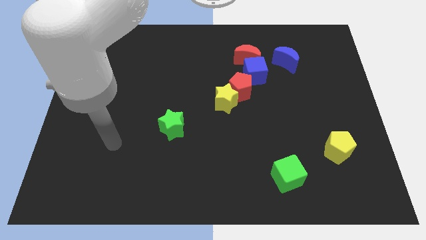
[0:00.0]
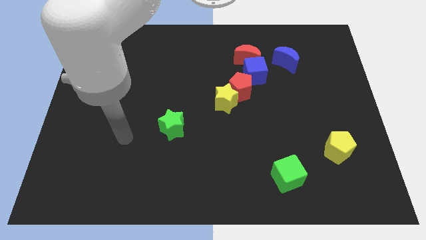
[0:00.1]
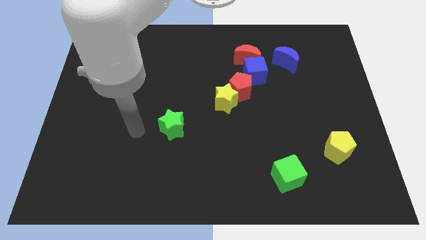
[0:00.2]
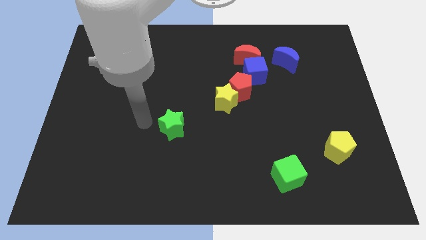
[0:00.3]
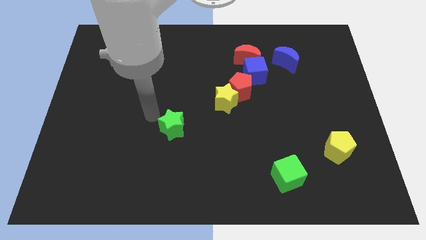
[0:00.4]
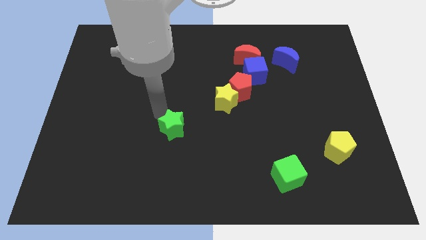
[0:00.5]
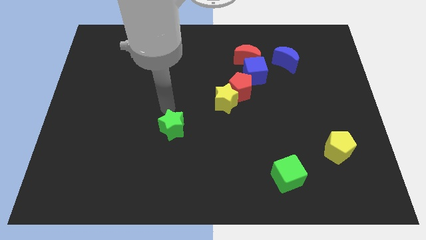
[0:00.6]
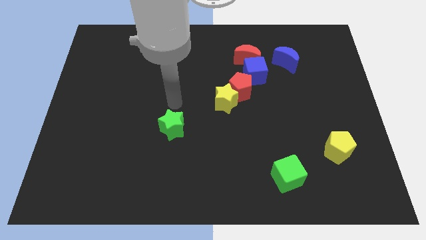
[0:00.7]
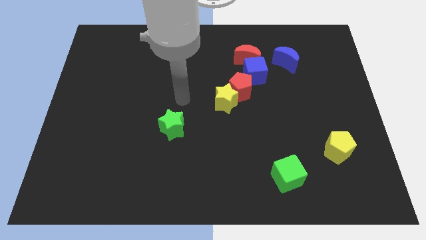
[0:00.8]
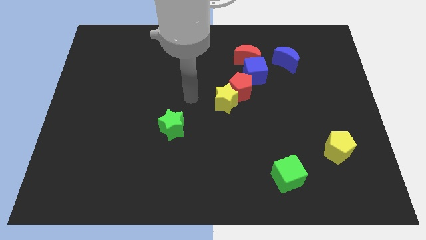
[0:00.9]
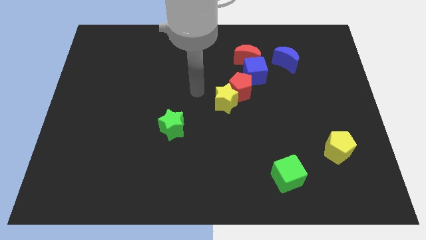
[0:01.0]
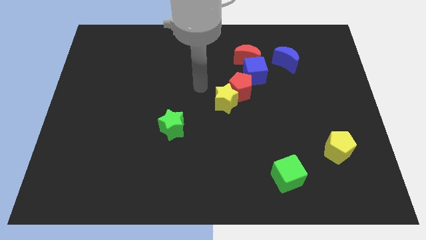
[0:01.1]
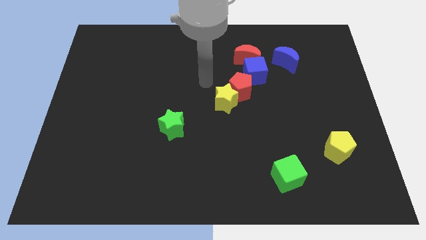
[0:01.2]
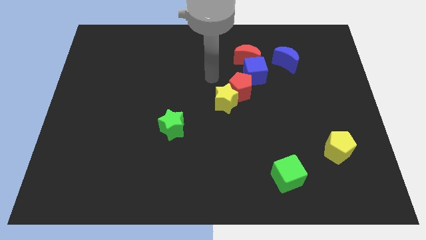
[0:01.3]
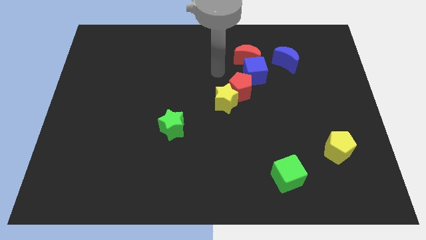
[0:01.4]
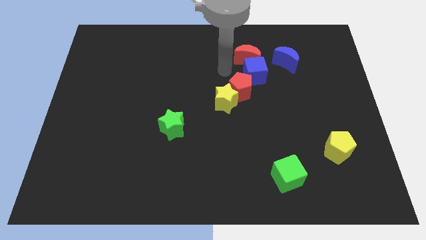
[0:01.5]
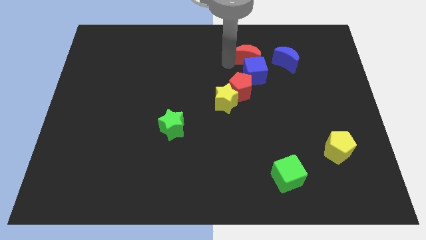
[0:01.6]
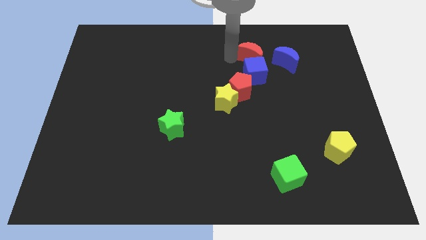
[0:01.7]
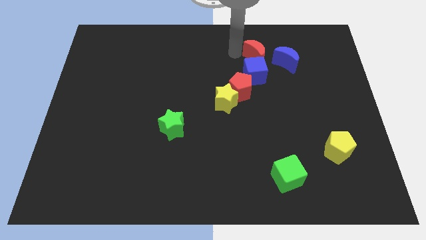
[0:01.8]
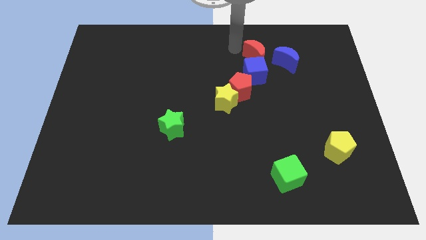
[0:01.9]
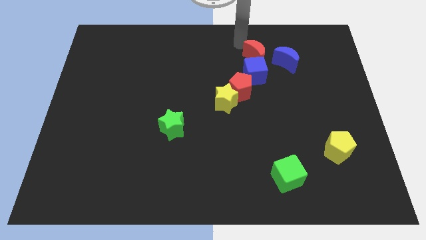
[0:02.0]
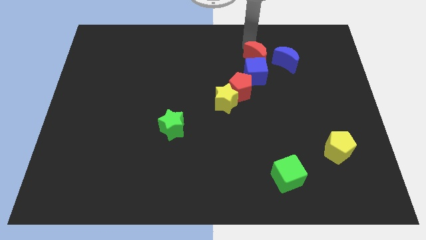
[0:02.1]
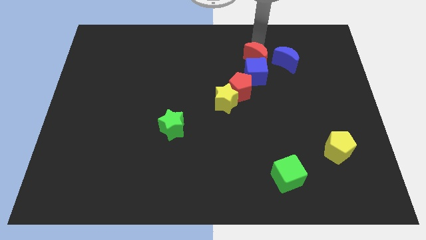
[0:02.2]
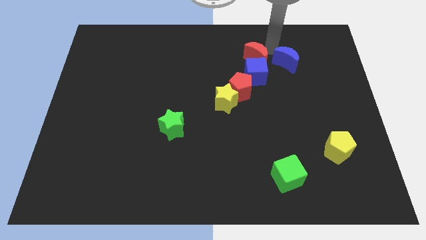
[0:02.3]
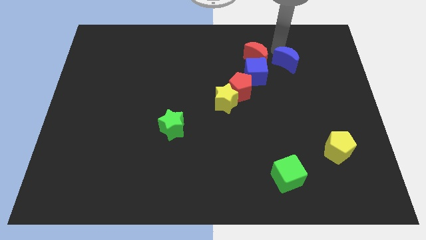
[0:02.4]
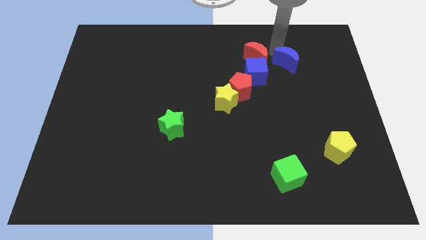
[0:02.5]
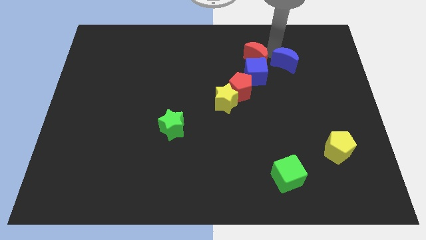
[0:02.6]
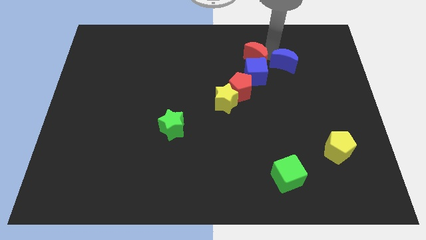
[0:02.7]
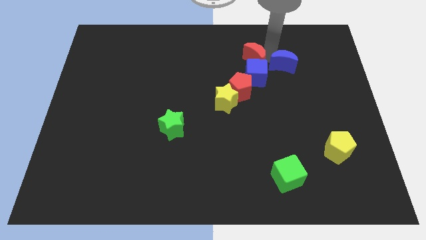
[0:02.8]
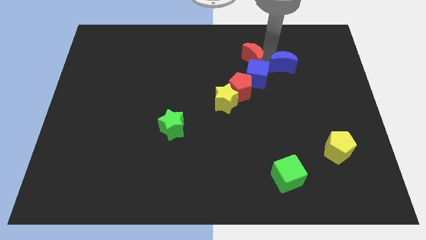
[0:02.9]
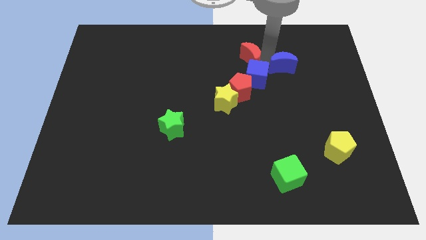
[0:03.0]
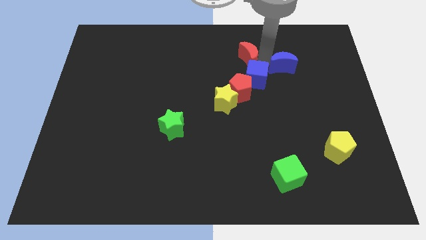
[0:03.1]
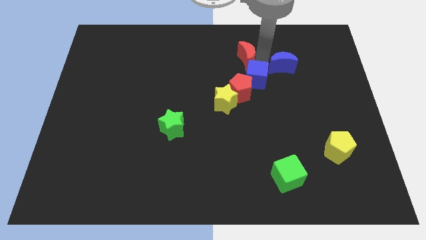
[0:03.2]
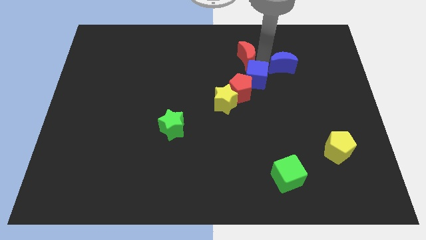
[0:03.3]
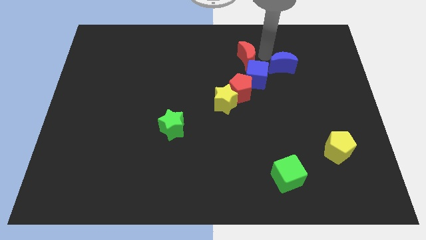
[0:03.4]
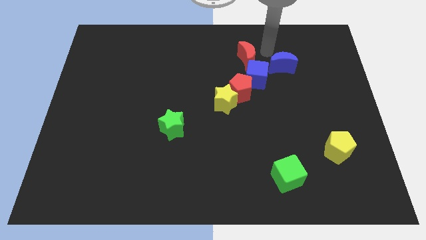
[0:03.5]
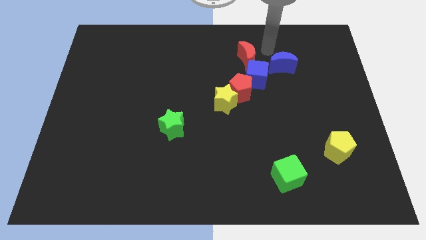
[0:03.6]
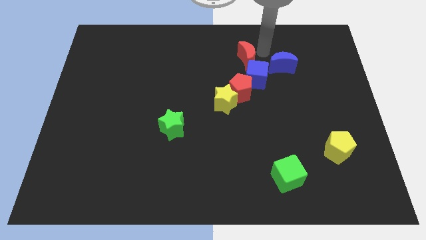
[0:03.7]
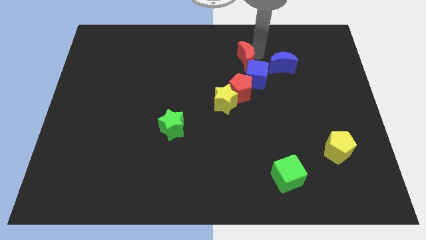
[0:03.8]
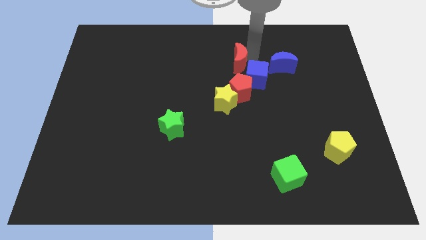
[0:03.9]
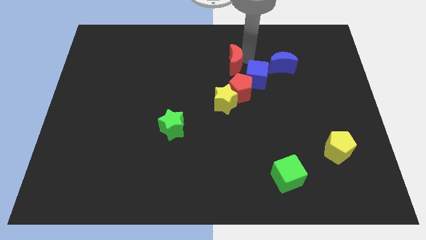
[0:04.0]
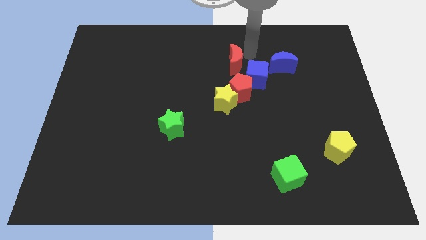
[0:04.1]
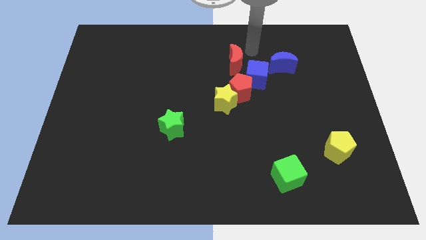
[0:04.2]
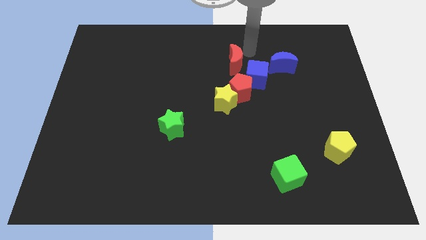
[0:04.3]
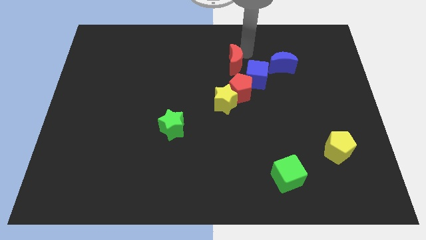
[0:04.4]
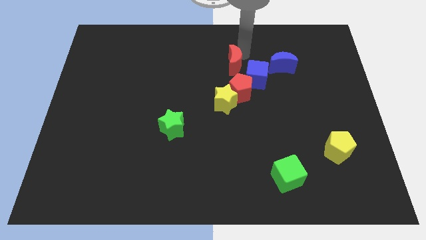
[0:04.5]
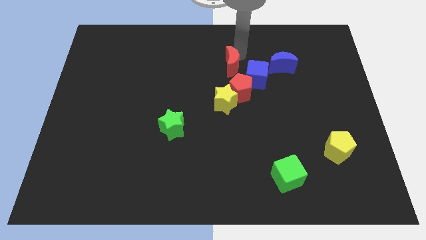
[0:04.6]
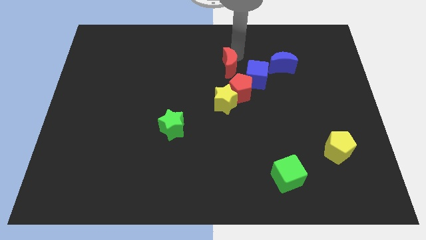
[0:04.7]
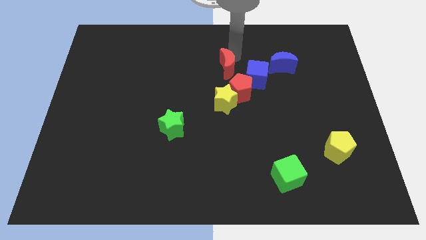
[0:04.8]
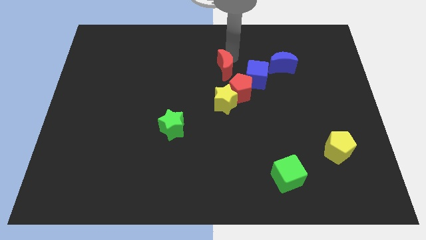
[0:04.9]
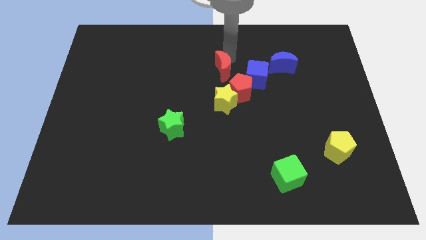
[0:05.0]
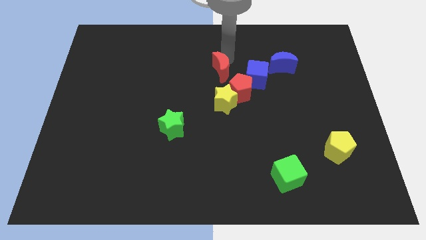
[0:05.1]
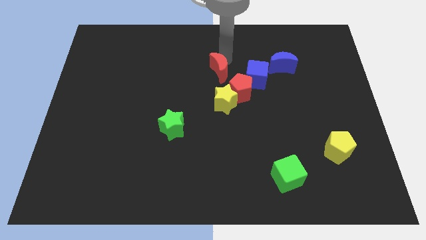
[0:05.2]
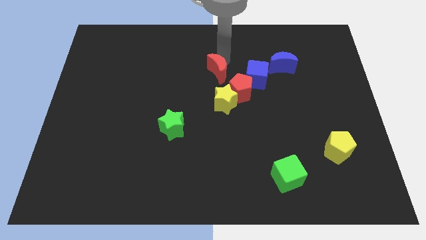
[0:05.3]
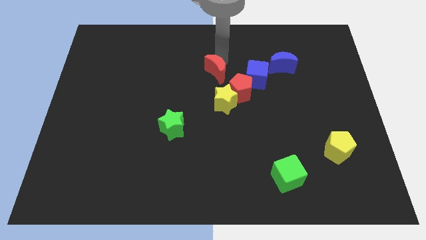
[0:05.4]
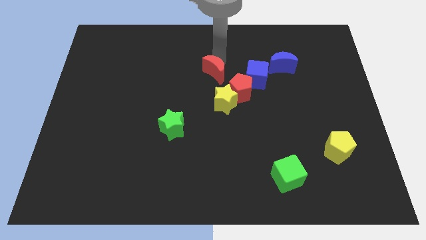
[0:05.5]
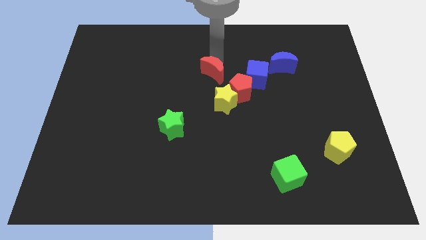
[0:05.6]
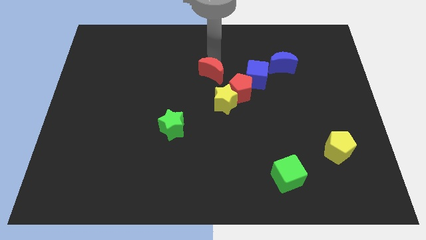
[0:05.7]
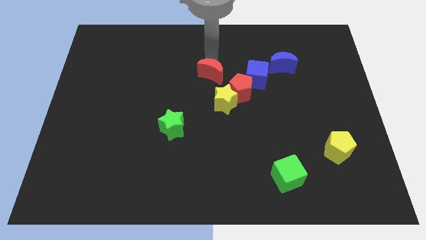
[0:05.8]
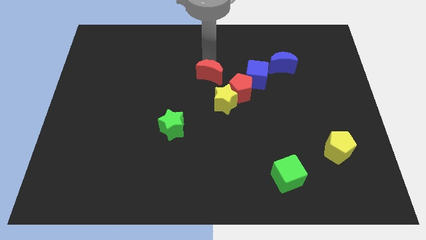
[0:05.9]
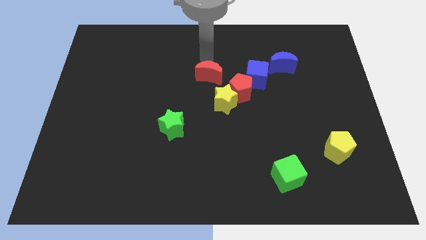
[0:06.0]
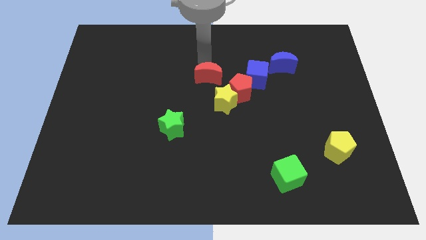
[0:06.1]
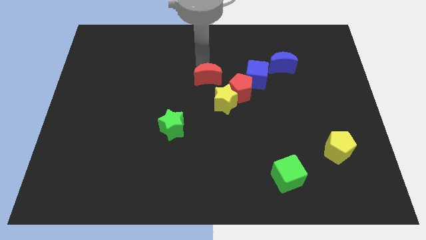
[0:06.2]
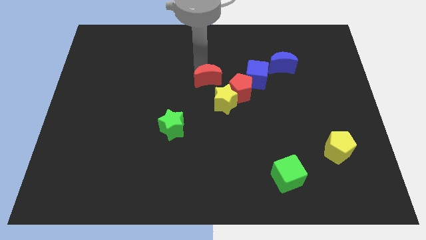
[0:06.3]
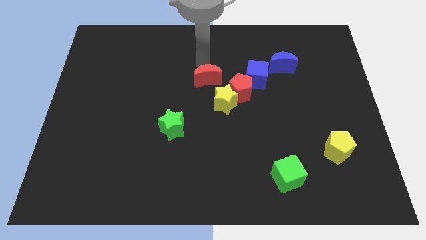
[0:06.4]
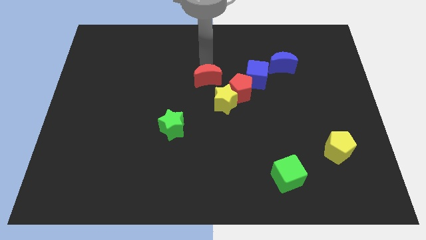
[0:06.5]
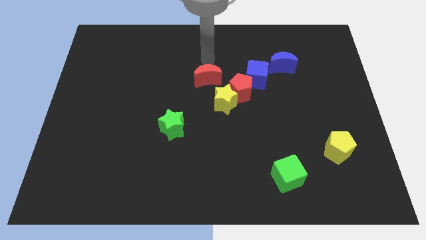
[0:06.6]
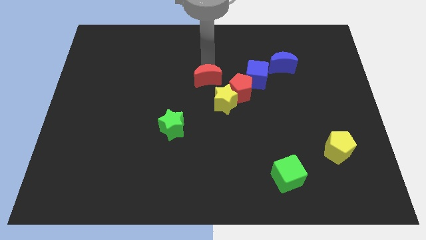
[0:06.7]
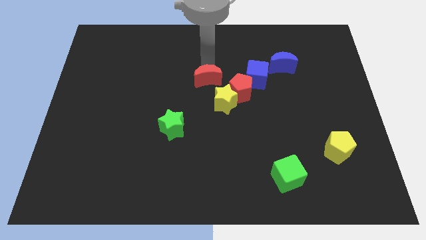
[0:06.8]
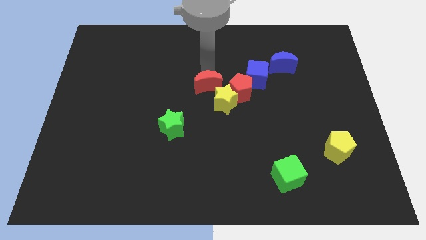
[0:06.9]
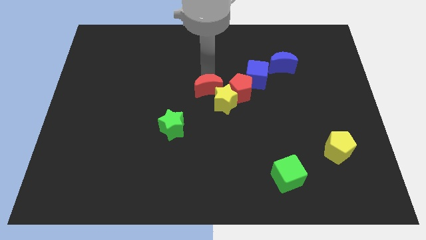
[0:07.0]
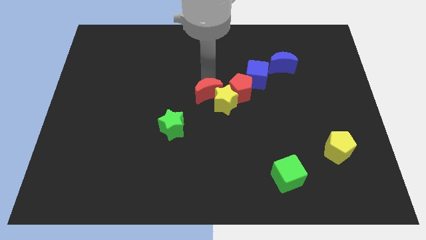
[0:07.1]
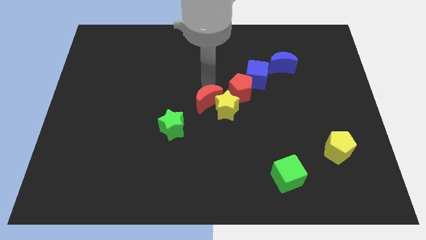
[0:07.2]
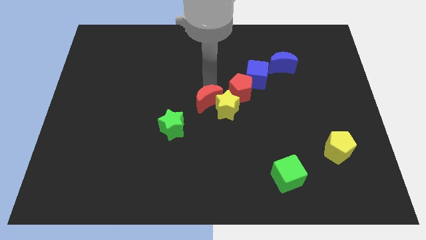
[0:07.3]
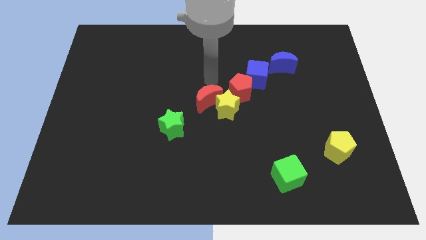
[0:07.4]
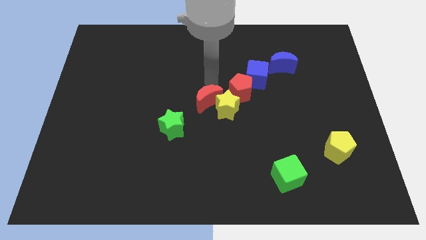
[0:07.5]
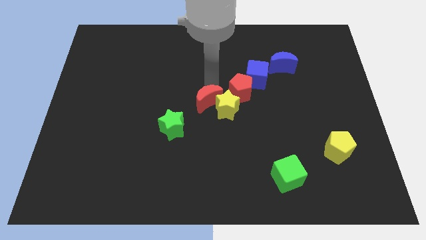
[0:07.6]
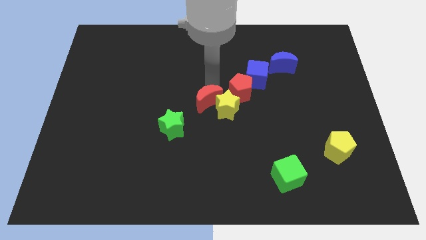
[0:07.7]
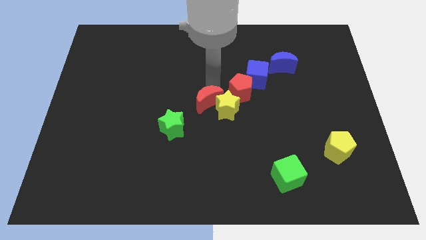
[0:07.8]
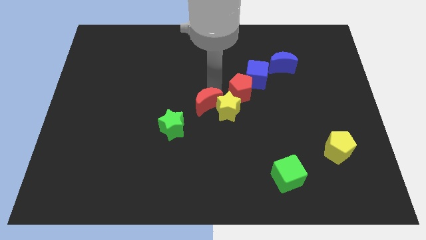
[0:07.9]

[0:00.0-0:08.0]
move the red moon to the bottom left side of the yellow star
